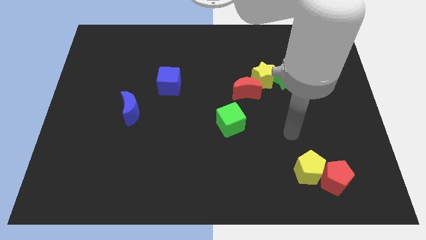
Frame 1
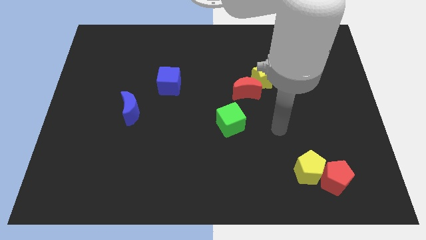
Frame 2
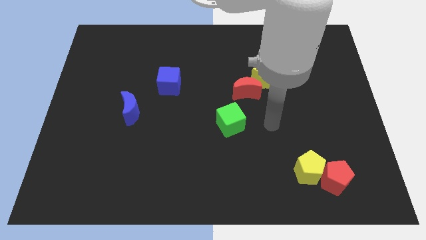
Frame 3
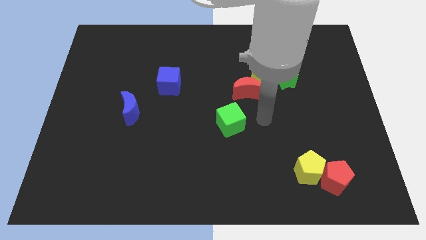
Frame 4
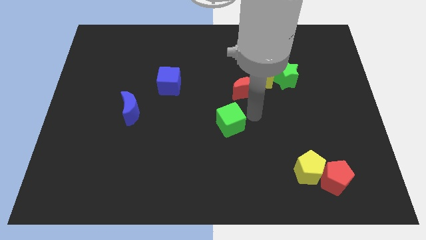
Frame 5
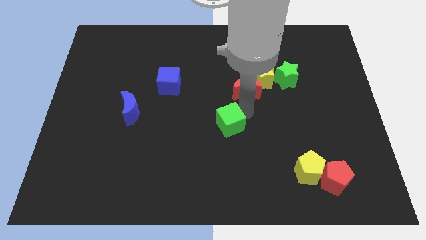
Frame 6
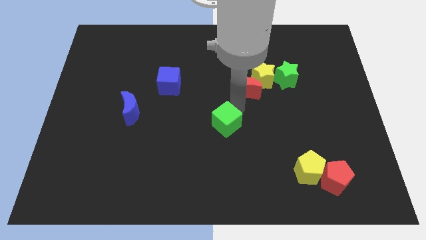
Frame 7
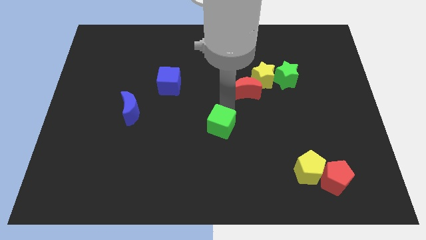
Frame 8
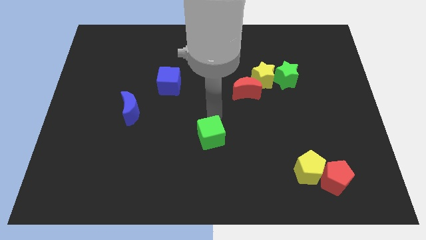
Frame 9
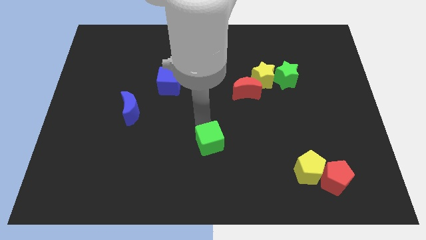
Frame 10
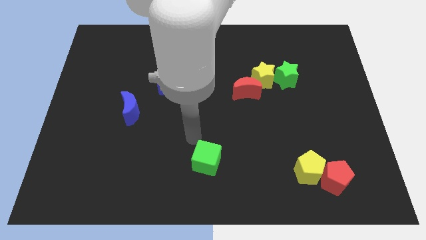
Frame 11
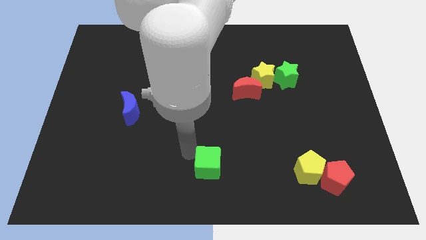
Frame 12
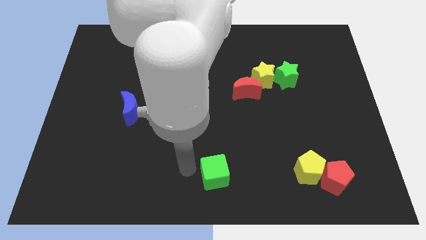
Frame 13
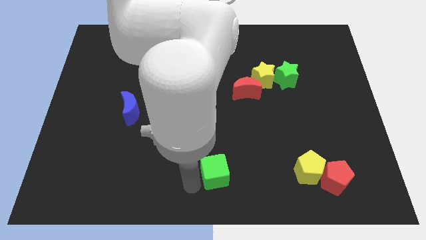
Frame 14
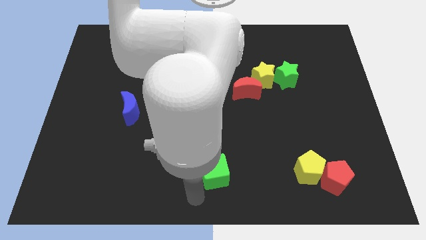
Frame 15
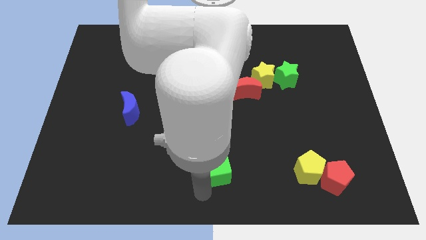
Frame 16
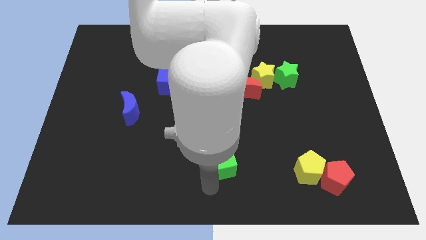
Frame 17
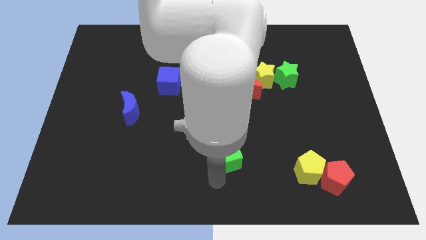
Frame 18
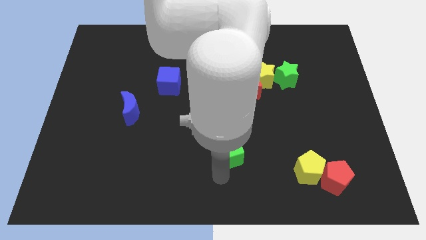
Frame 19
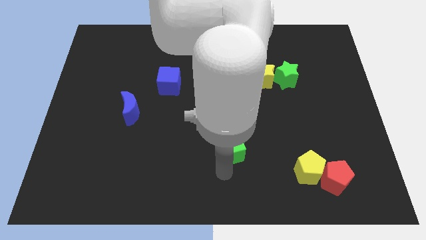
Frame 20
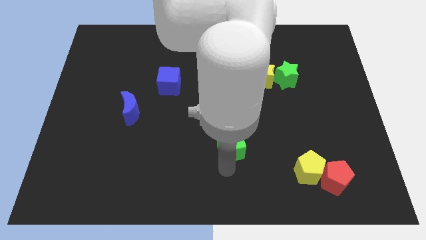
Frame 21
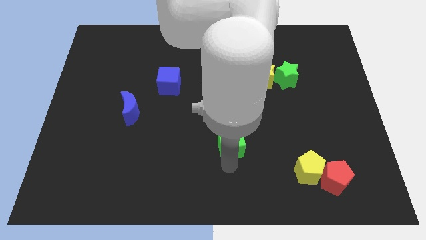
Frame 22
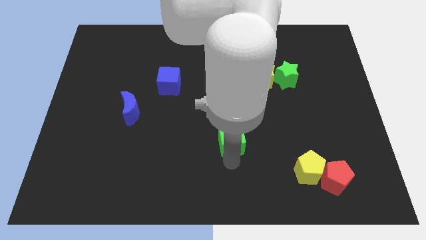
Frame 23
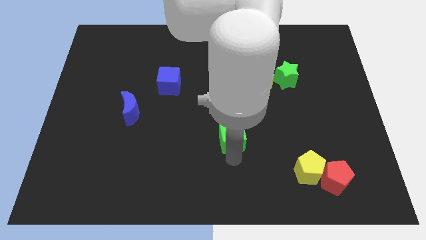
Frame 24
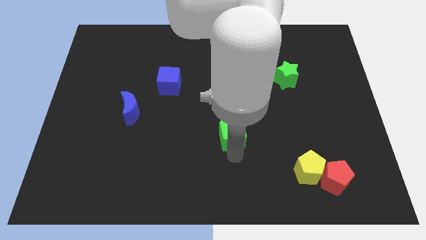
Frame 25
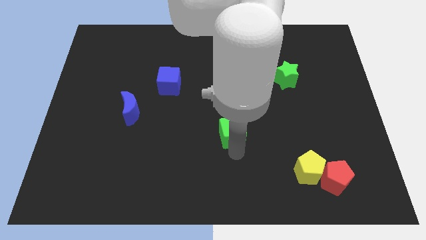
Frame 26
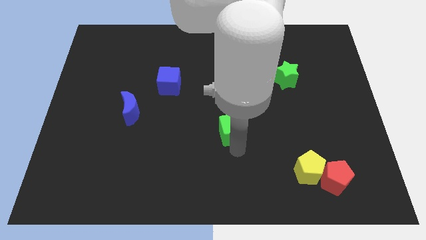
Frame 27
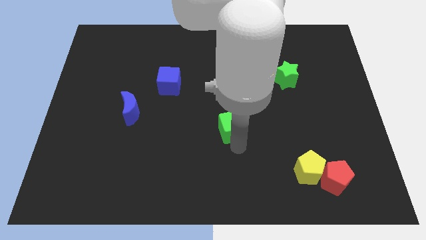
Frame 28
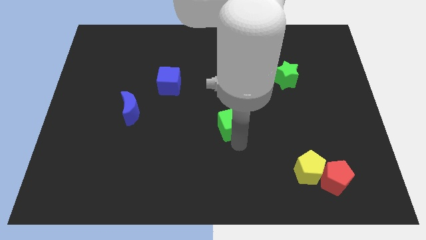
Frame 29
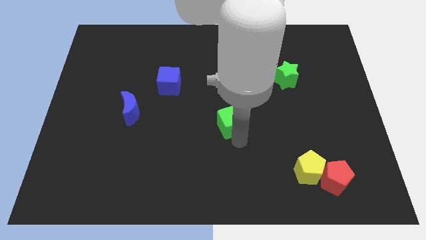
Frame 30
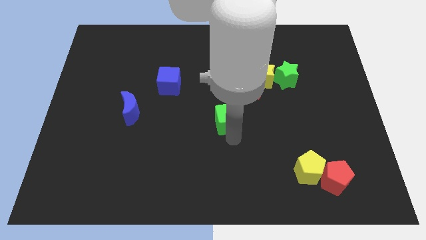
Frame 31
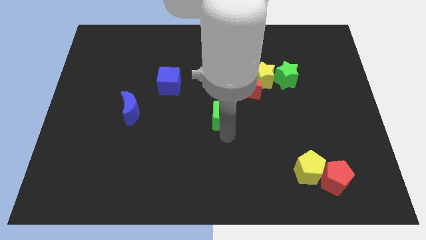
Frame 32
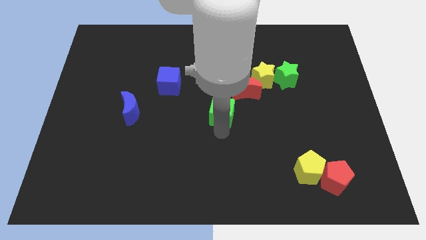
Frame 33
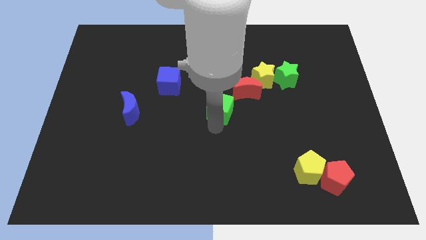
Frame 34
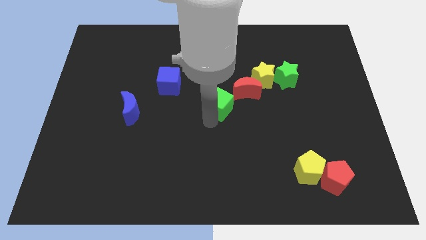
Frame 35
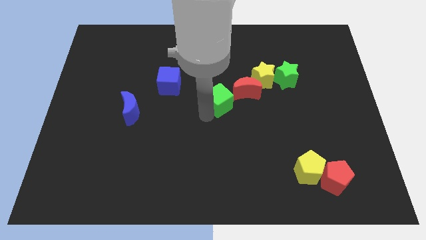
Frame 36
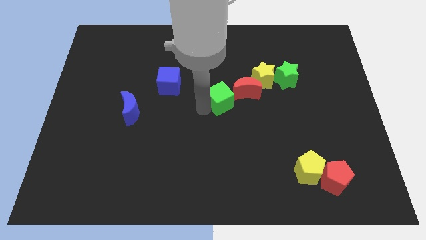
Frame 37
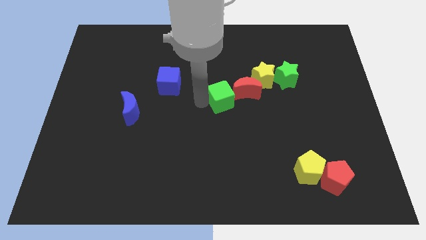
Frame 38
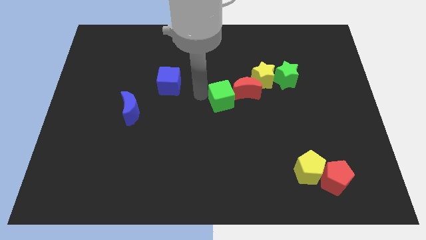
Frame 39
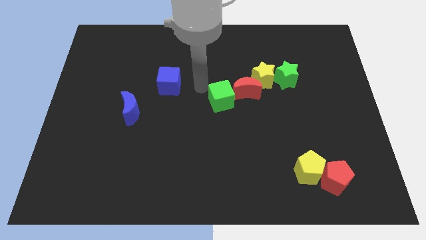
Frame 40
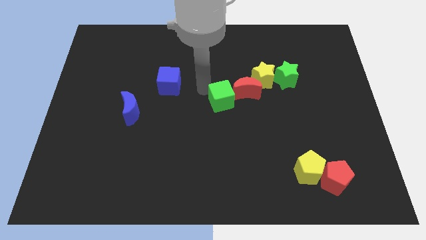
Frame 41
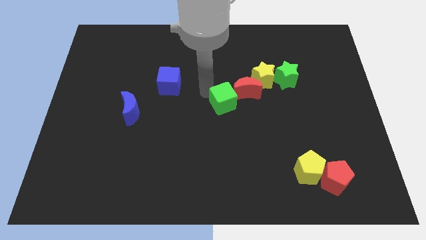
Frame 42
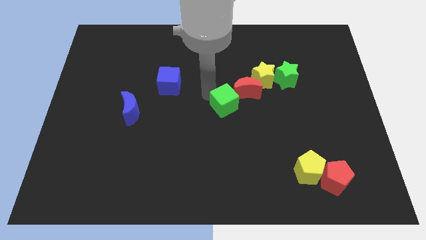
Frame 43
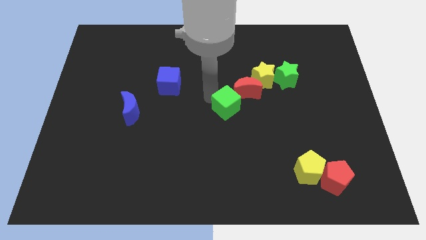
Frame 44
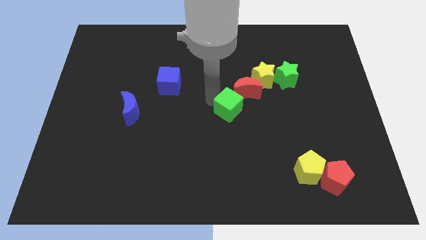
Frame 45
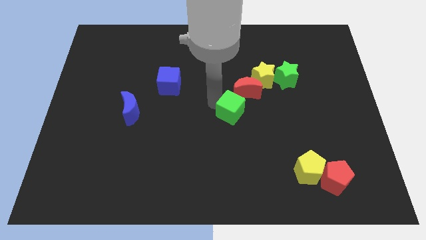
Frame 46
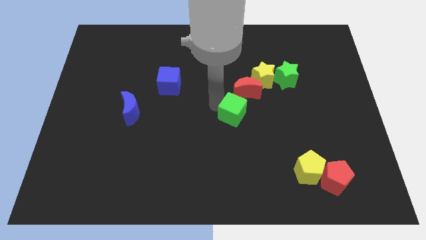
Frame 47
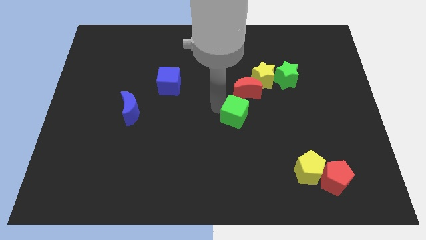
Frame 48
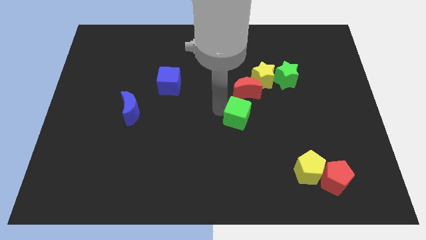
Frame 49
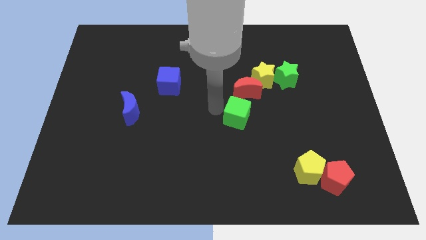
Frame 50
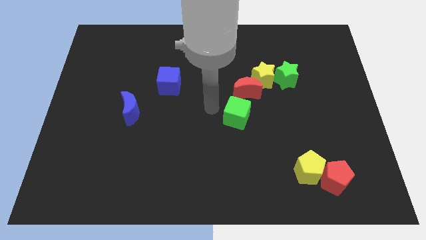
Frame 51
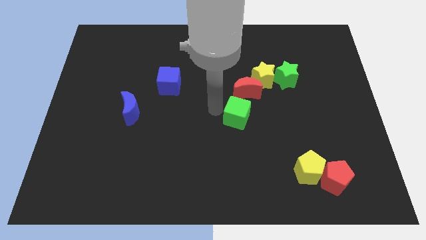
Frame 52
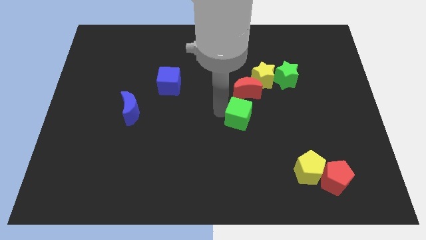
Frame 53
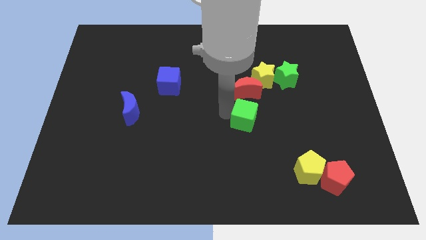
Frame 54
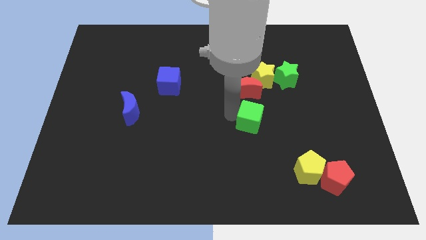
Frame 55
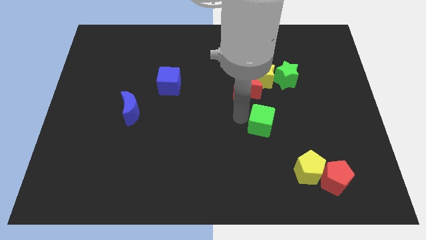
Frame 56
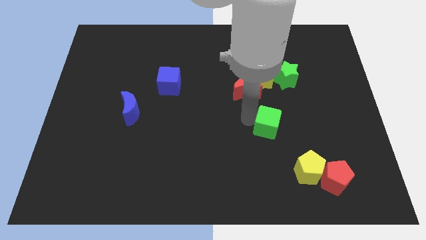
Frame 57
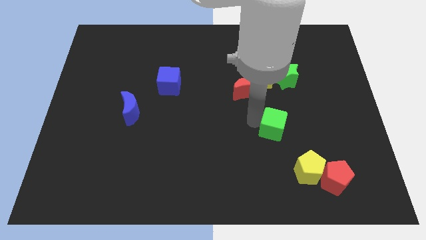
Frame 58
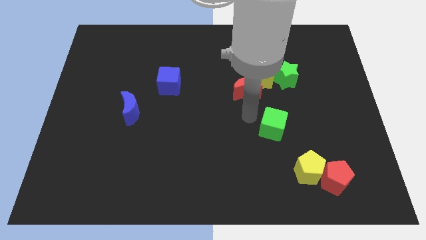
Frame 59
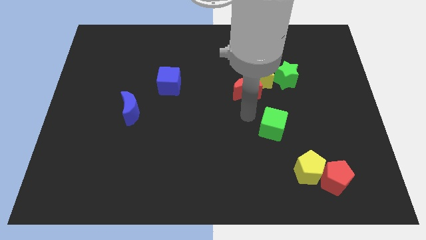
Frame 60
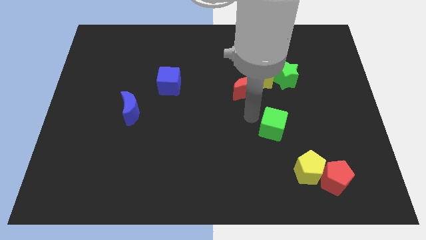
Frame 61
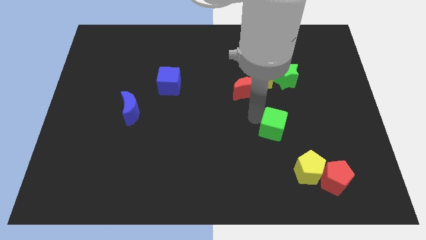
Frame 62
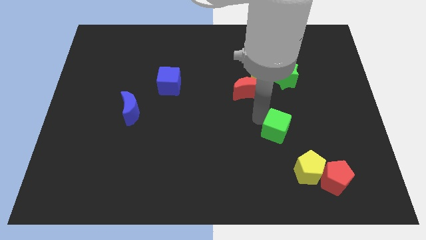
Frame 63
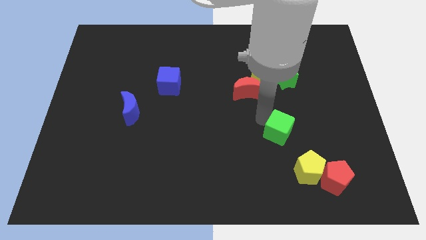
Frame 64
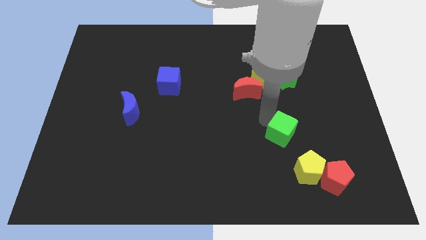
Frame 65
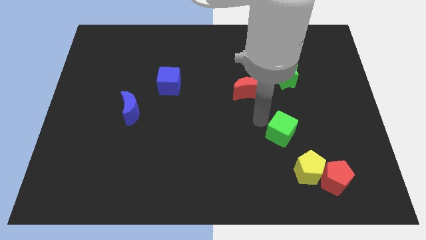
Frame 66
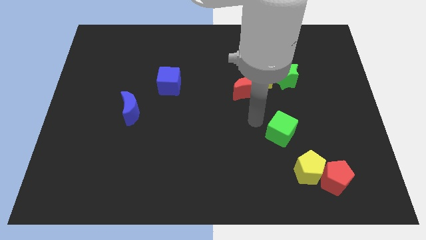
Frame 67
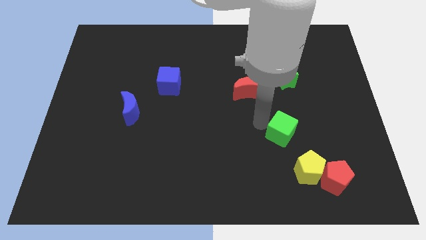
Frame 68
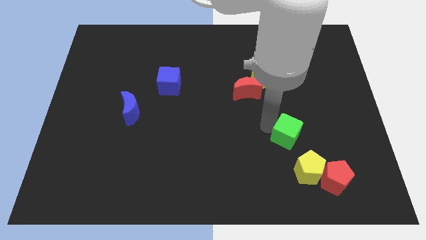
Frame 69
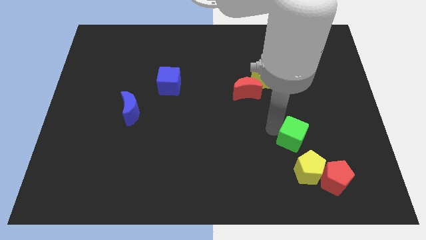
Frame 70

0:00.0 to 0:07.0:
push the green cube diagonally up and to the left of the red pentagon
